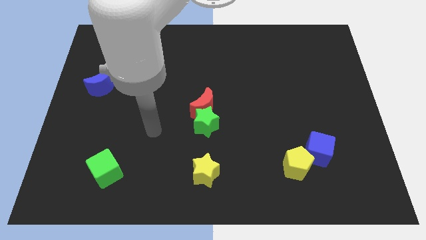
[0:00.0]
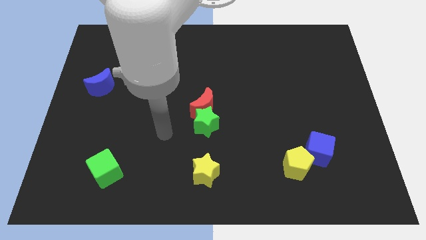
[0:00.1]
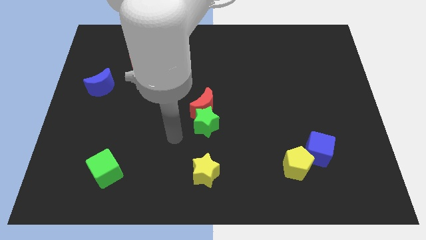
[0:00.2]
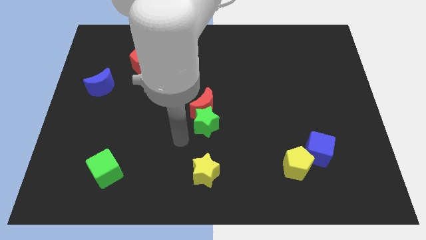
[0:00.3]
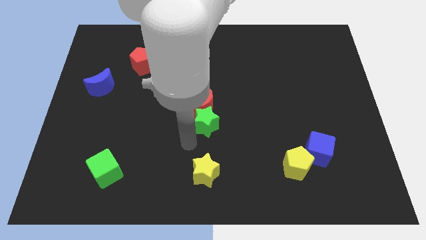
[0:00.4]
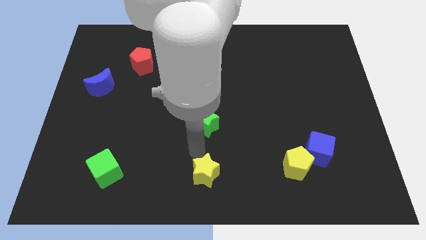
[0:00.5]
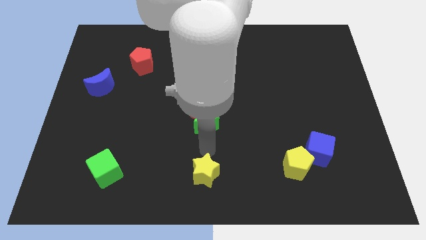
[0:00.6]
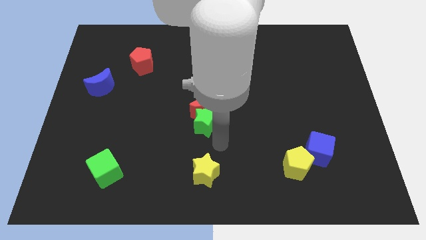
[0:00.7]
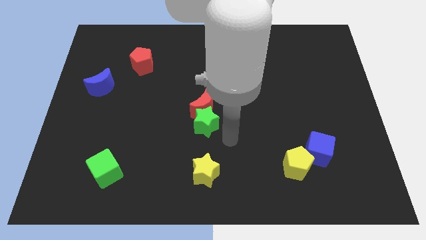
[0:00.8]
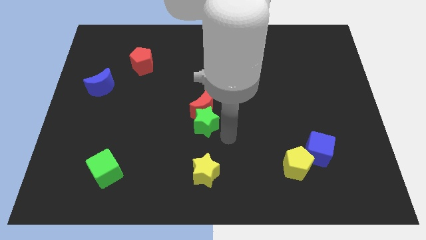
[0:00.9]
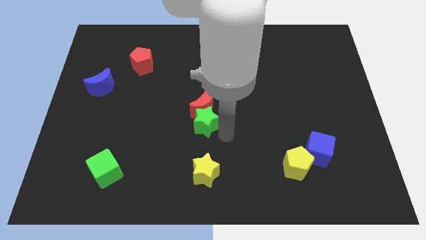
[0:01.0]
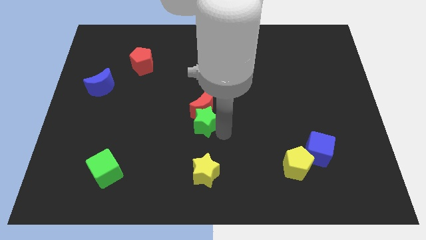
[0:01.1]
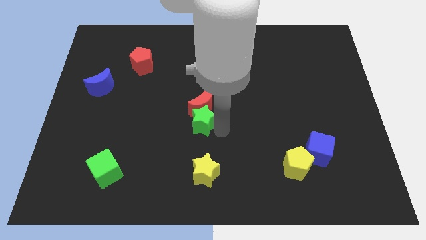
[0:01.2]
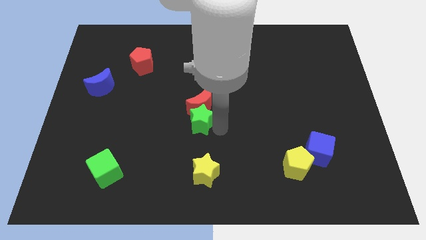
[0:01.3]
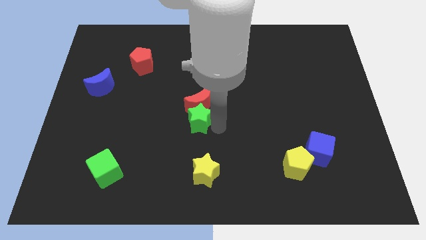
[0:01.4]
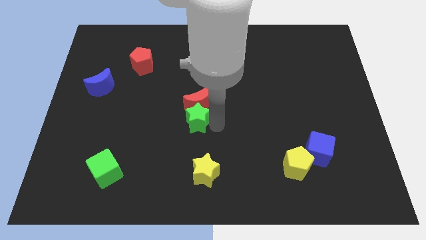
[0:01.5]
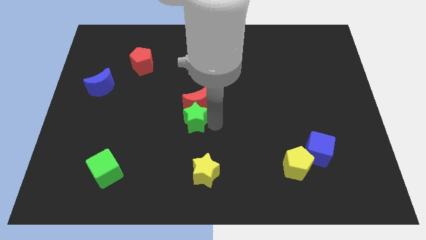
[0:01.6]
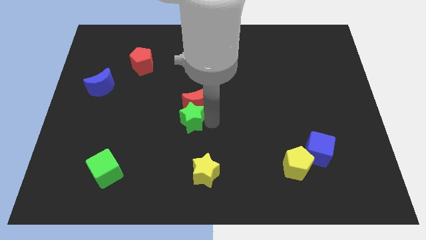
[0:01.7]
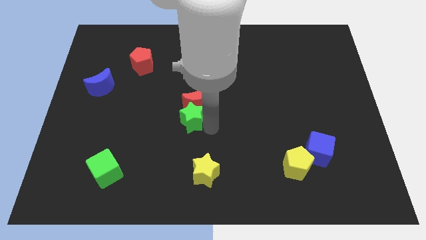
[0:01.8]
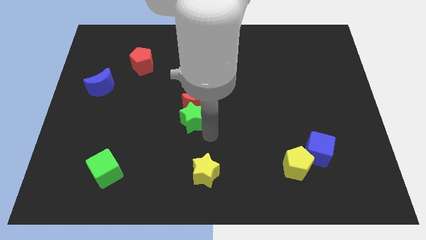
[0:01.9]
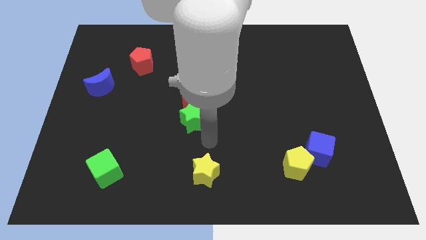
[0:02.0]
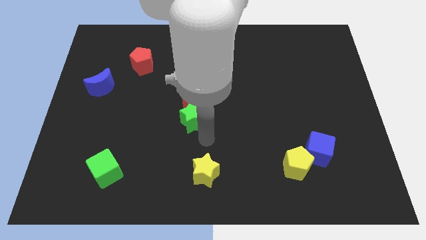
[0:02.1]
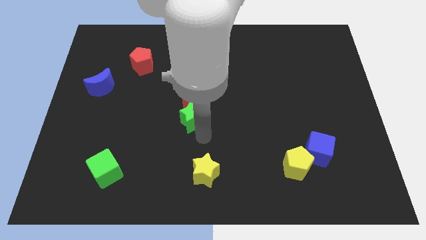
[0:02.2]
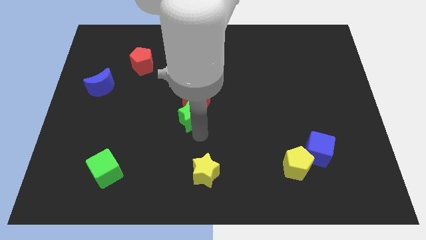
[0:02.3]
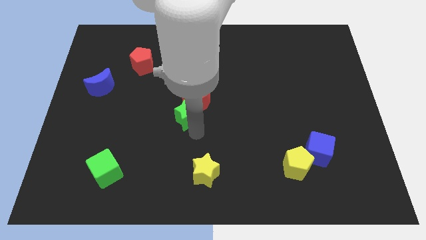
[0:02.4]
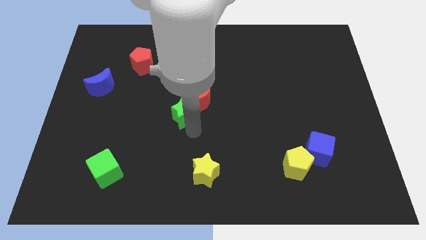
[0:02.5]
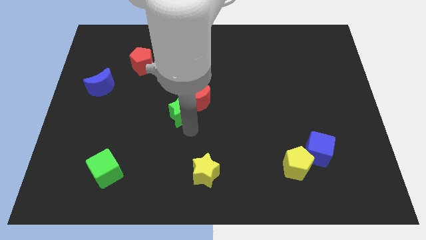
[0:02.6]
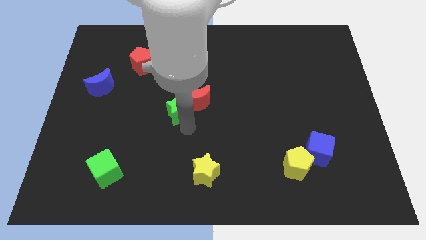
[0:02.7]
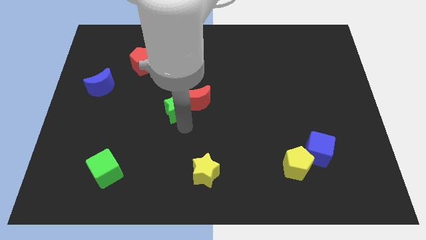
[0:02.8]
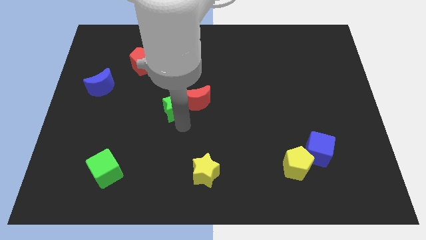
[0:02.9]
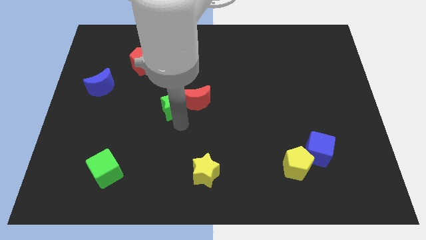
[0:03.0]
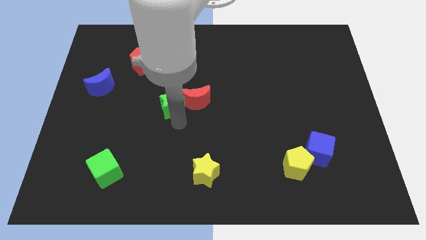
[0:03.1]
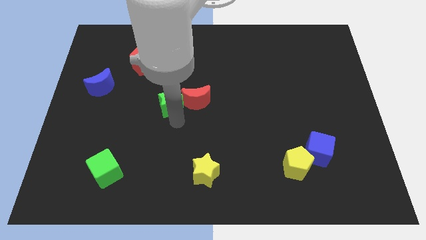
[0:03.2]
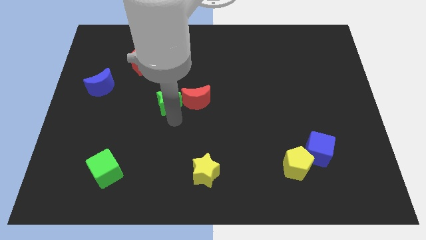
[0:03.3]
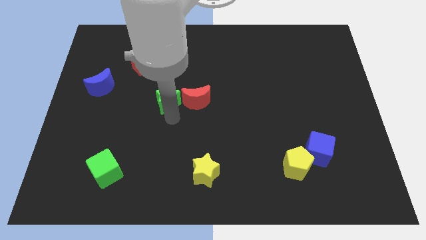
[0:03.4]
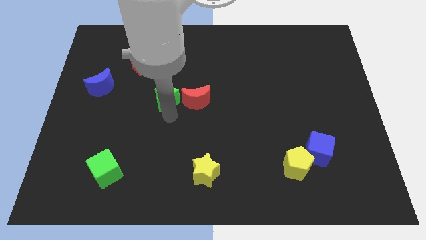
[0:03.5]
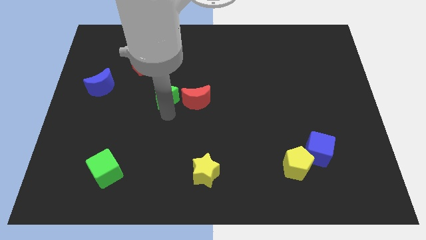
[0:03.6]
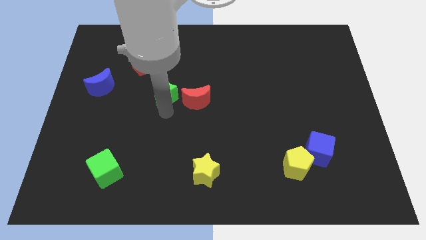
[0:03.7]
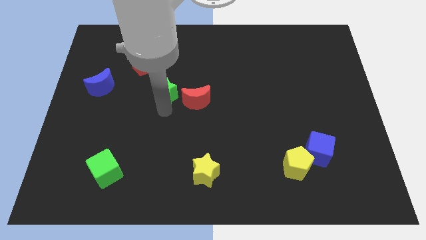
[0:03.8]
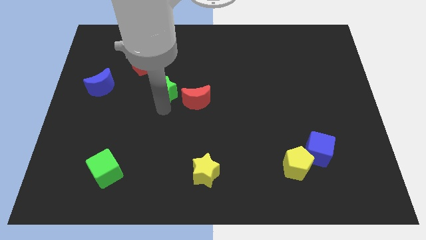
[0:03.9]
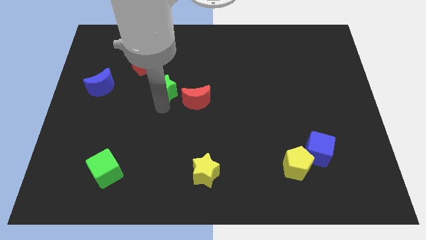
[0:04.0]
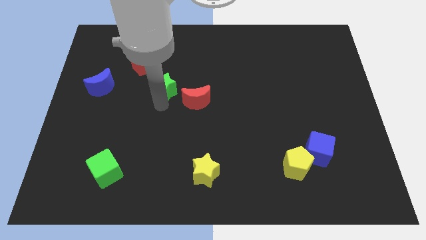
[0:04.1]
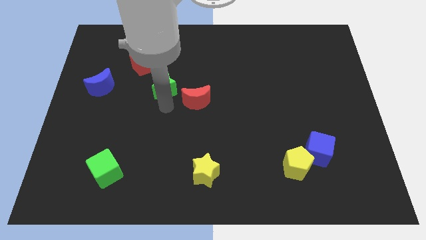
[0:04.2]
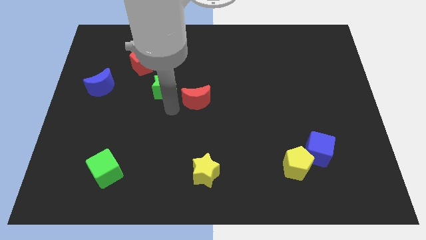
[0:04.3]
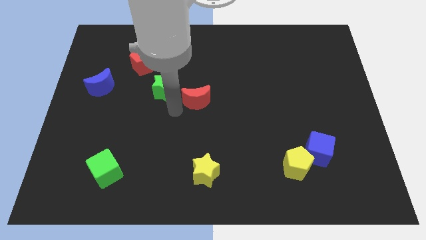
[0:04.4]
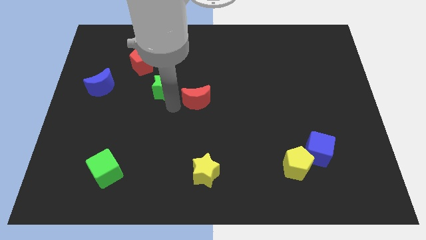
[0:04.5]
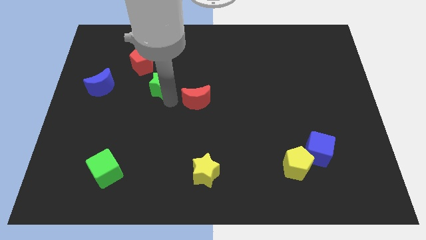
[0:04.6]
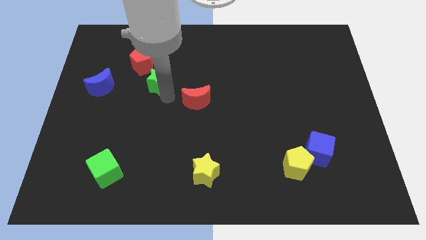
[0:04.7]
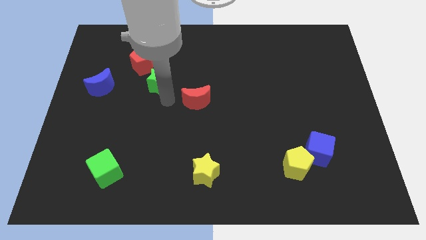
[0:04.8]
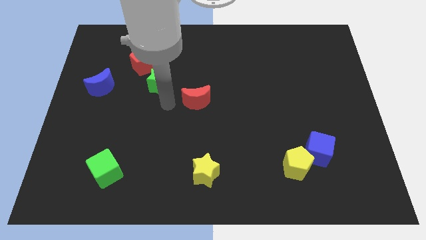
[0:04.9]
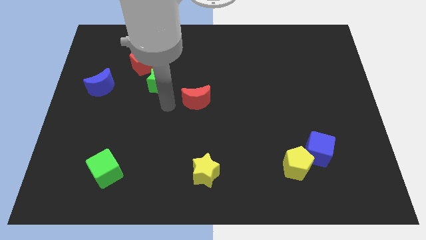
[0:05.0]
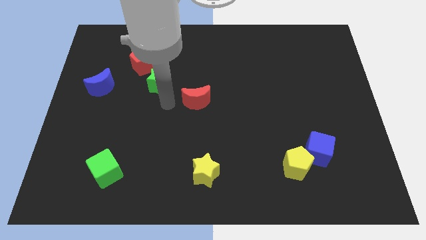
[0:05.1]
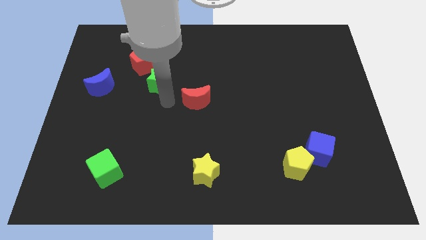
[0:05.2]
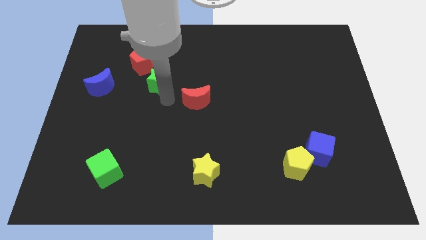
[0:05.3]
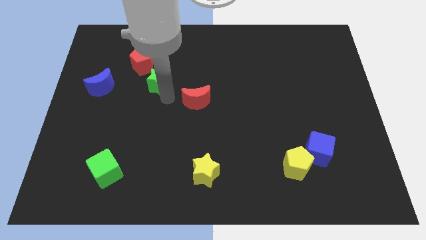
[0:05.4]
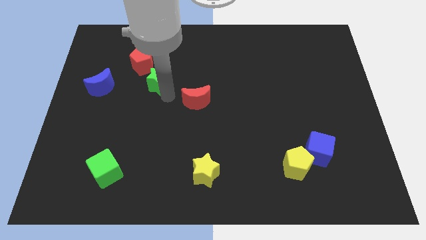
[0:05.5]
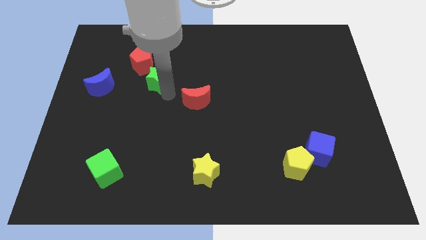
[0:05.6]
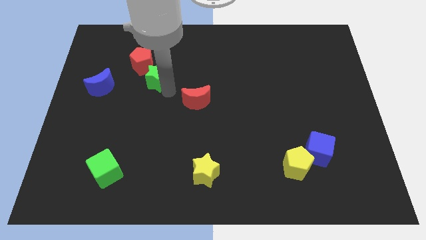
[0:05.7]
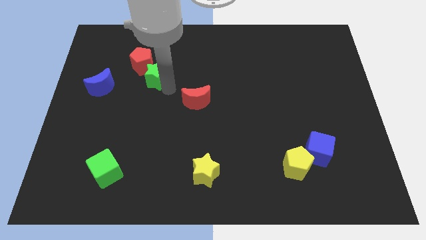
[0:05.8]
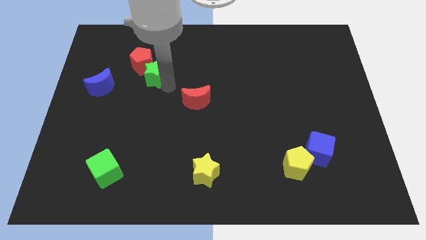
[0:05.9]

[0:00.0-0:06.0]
slide the green star next to the red pentagon

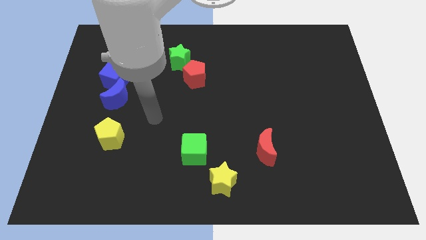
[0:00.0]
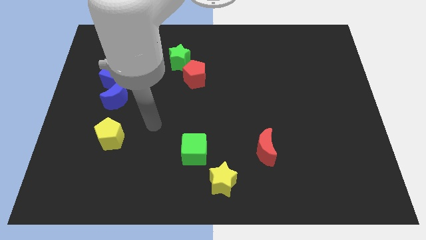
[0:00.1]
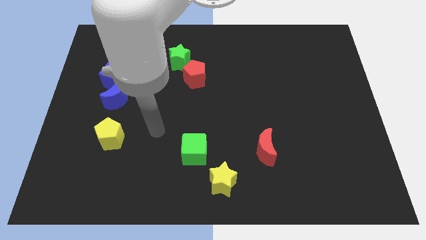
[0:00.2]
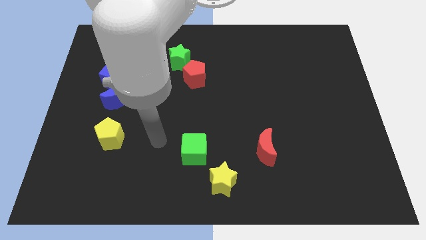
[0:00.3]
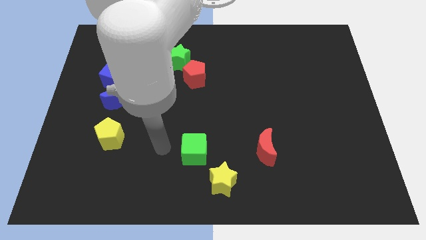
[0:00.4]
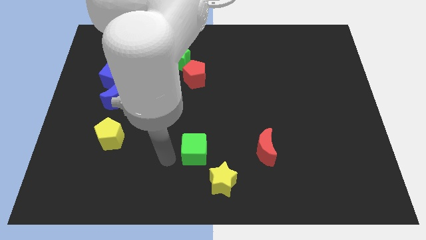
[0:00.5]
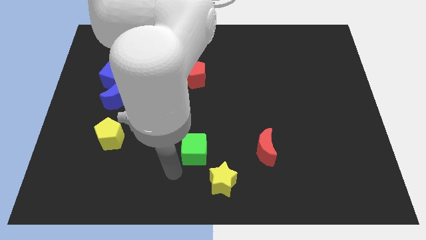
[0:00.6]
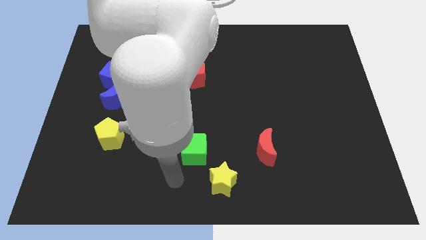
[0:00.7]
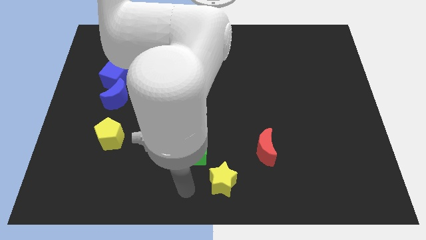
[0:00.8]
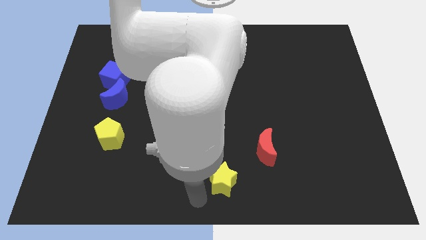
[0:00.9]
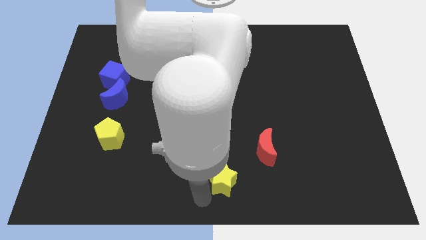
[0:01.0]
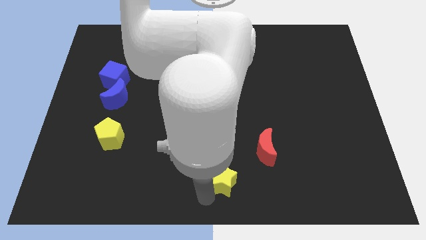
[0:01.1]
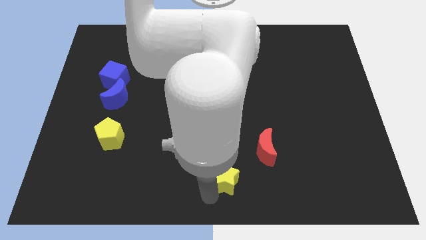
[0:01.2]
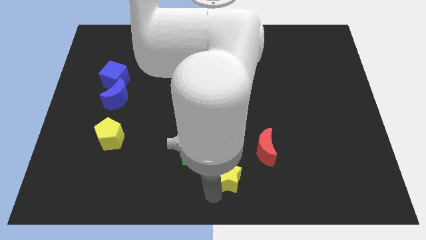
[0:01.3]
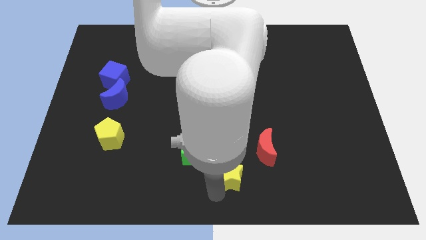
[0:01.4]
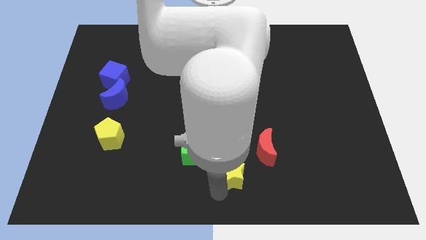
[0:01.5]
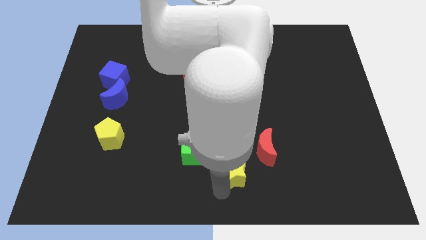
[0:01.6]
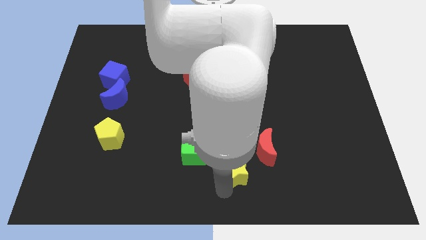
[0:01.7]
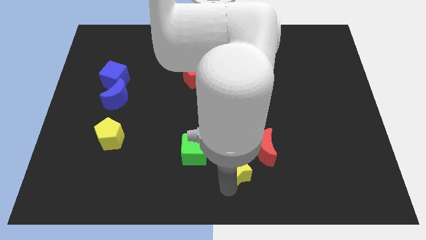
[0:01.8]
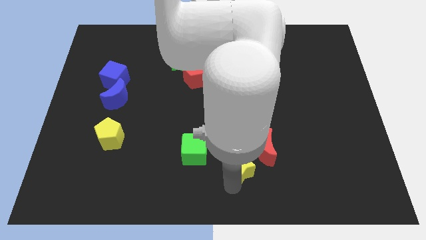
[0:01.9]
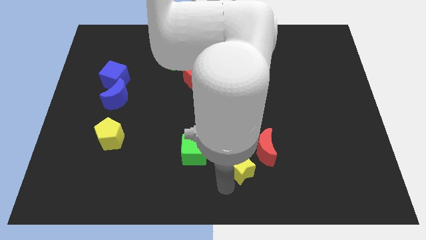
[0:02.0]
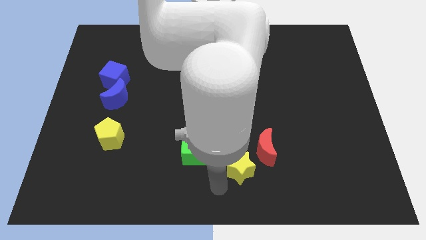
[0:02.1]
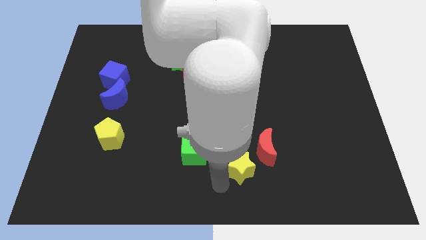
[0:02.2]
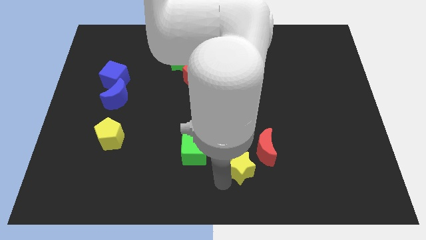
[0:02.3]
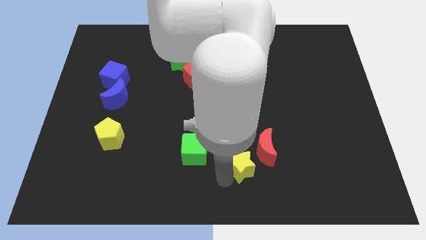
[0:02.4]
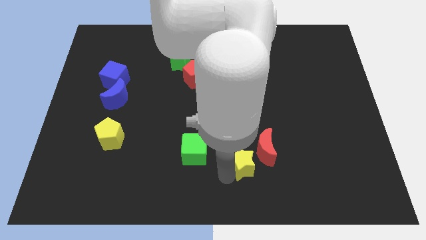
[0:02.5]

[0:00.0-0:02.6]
push the yellow star towards the red moon
